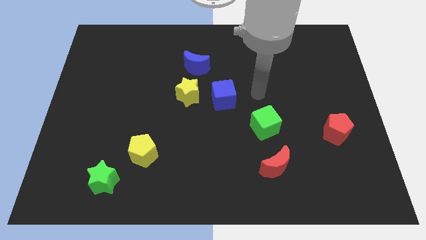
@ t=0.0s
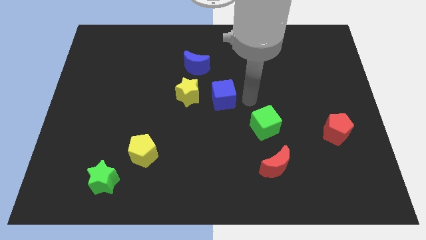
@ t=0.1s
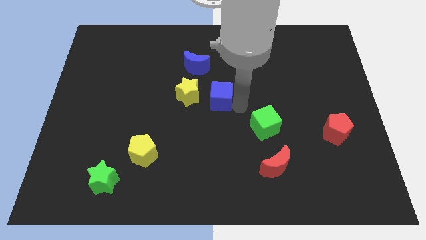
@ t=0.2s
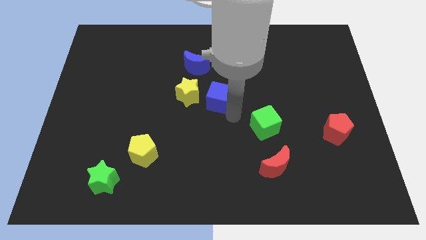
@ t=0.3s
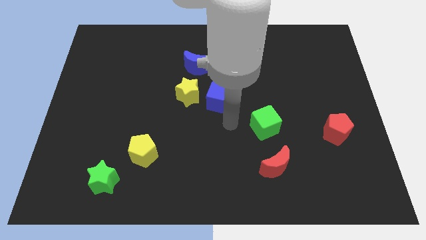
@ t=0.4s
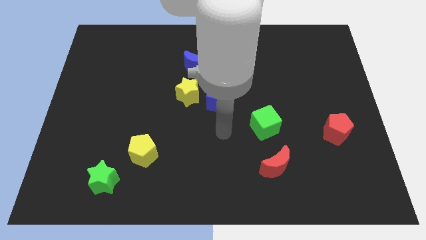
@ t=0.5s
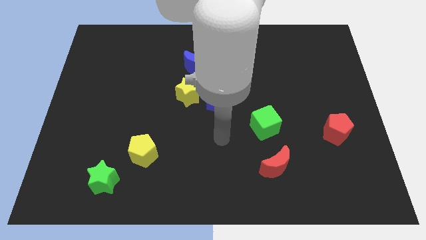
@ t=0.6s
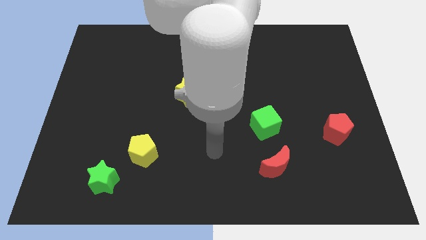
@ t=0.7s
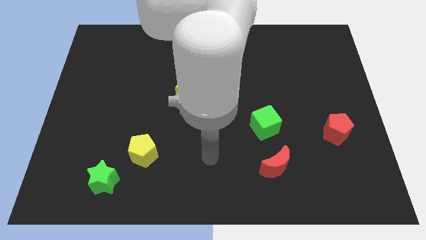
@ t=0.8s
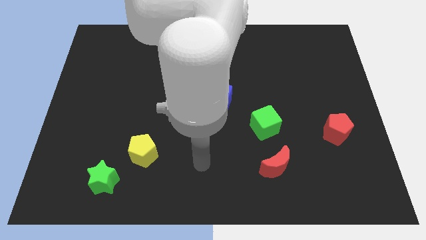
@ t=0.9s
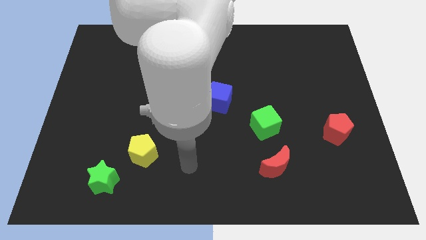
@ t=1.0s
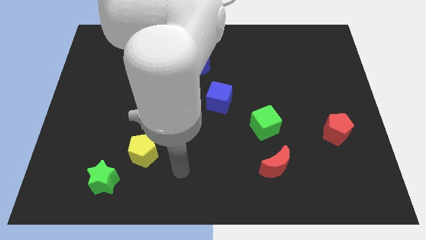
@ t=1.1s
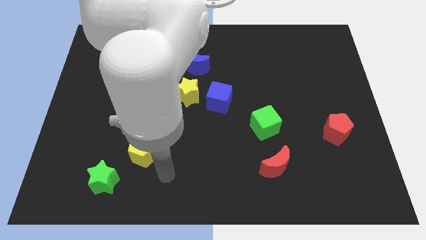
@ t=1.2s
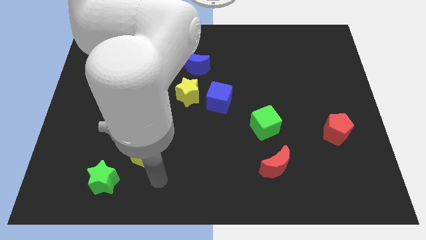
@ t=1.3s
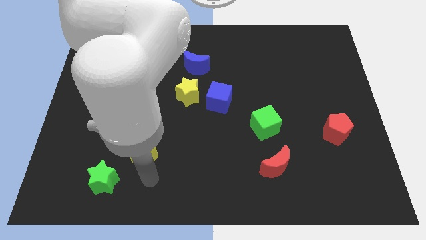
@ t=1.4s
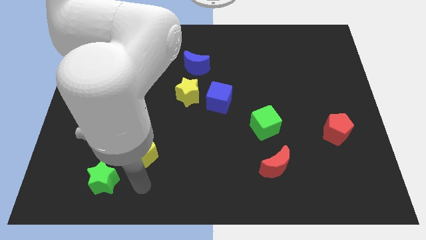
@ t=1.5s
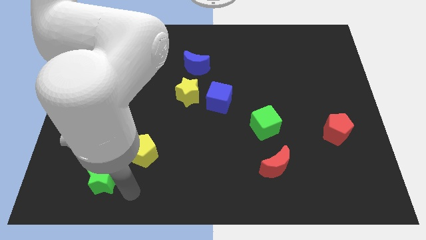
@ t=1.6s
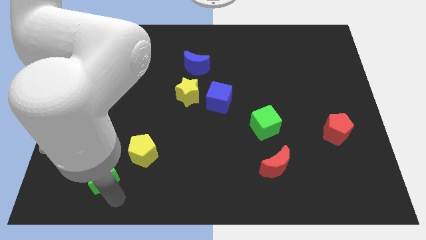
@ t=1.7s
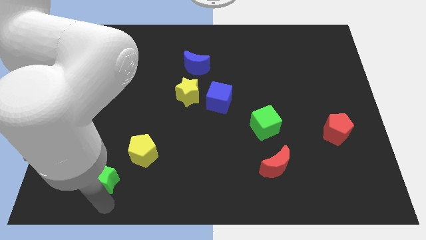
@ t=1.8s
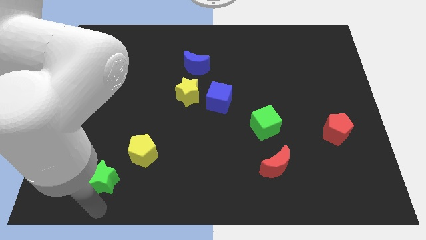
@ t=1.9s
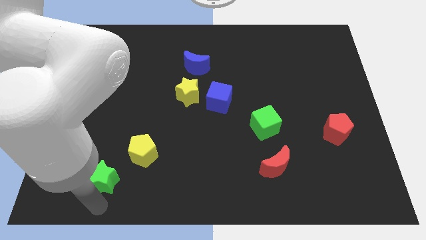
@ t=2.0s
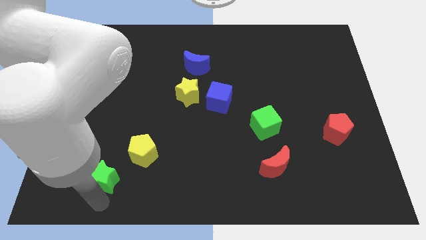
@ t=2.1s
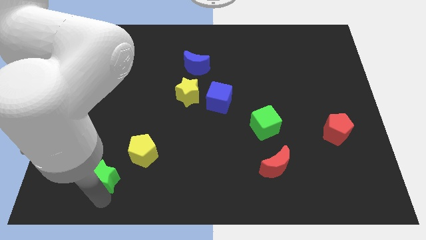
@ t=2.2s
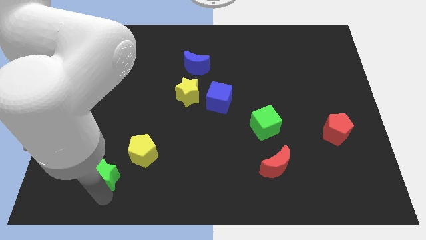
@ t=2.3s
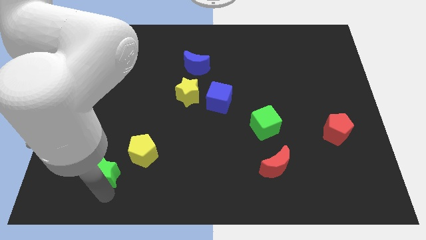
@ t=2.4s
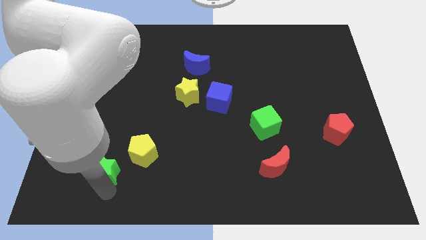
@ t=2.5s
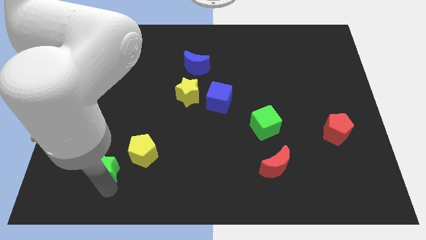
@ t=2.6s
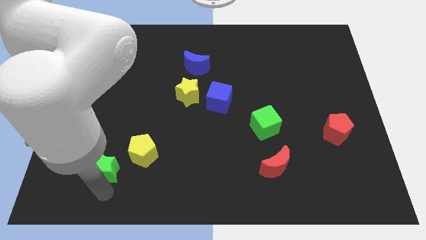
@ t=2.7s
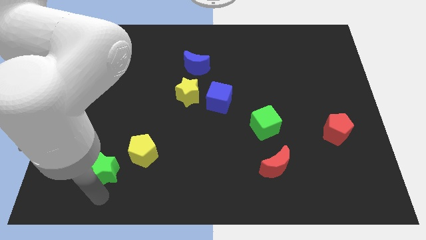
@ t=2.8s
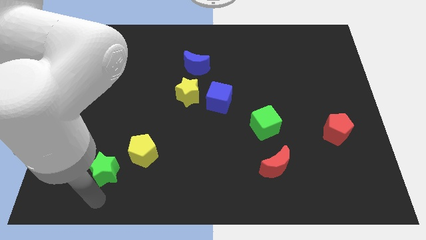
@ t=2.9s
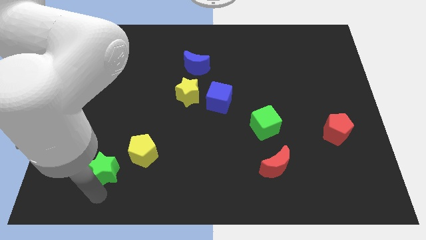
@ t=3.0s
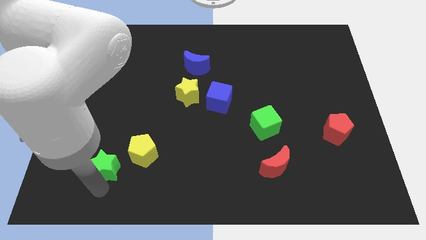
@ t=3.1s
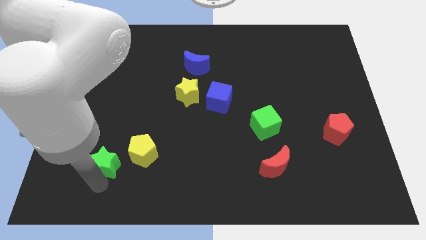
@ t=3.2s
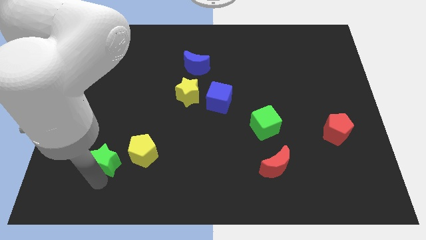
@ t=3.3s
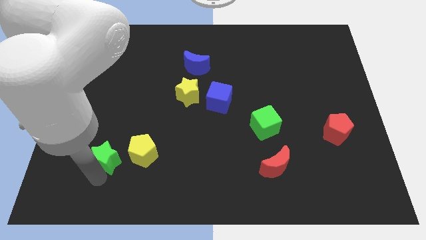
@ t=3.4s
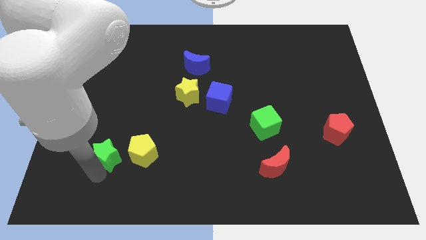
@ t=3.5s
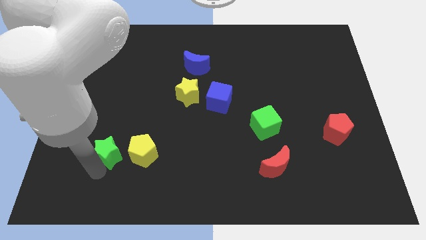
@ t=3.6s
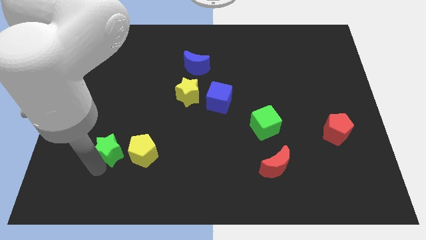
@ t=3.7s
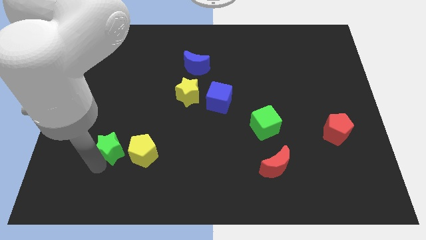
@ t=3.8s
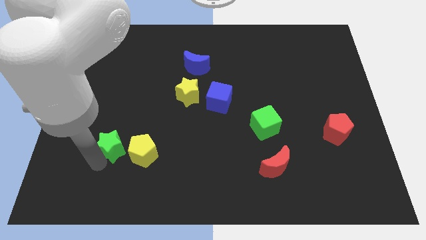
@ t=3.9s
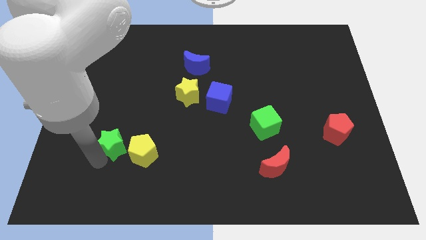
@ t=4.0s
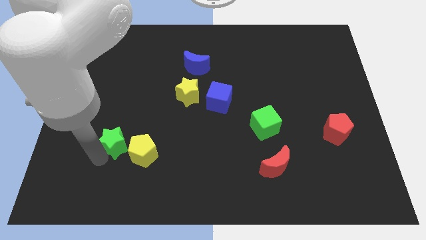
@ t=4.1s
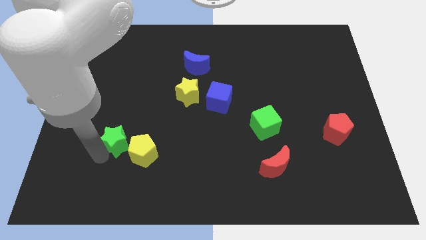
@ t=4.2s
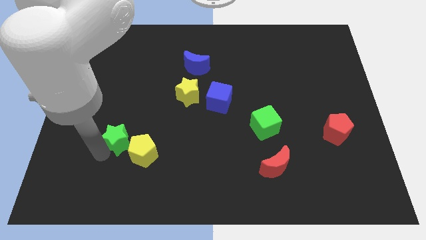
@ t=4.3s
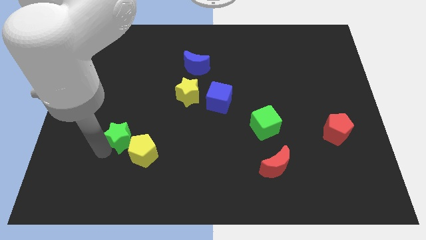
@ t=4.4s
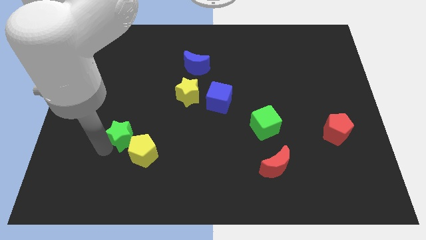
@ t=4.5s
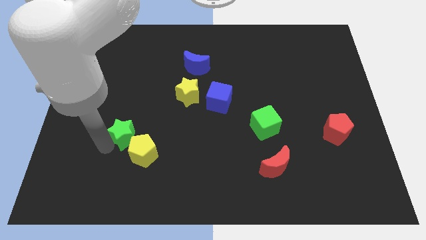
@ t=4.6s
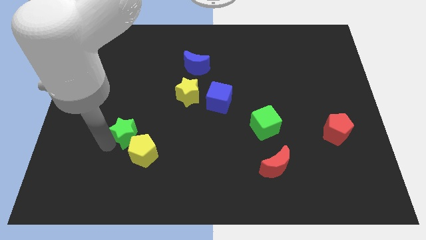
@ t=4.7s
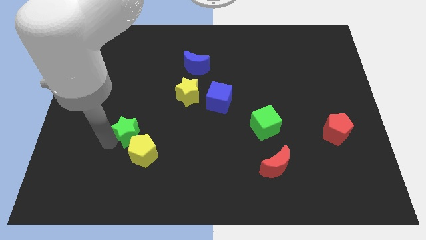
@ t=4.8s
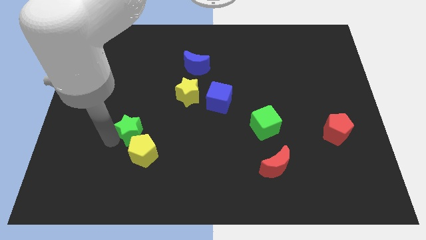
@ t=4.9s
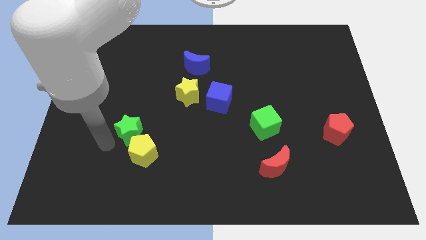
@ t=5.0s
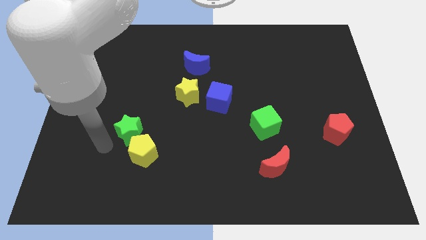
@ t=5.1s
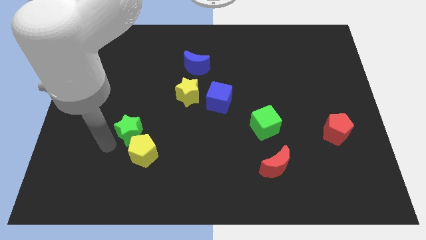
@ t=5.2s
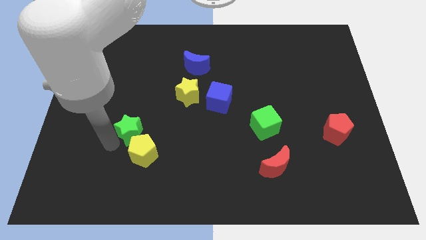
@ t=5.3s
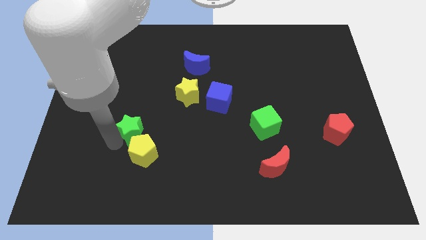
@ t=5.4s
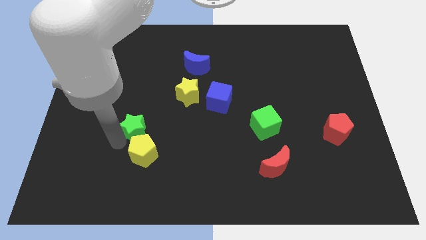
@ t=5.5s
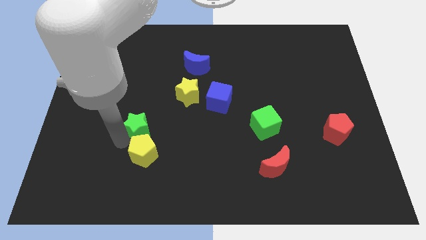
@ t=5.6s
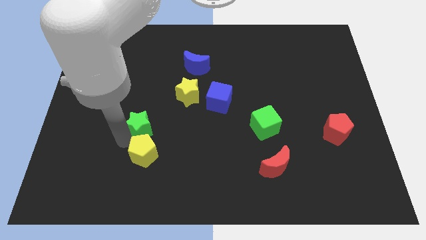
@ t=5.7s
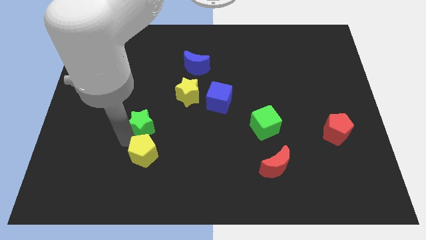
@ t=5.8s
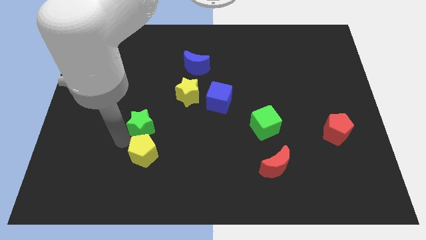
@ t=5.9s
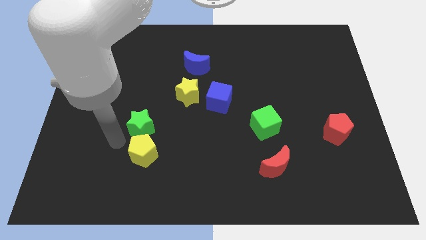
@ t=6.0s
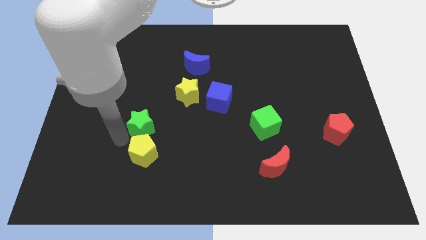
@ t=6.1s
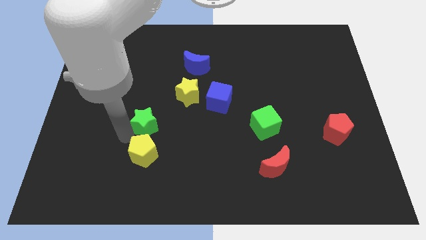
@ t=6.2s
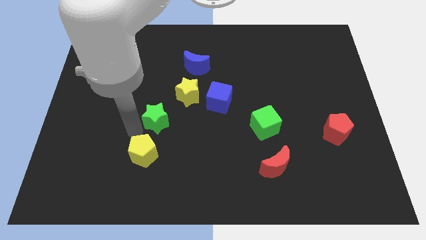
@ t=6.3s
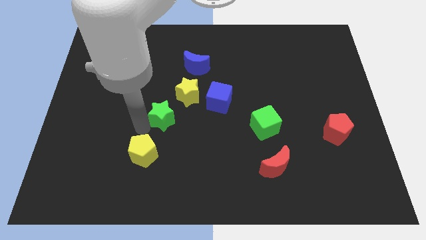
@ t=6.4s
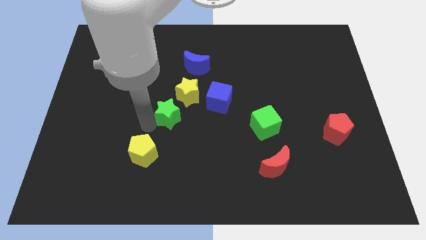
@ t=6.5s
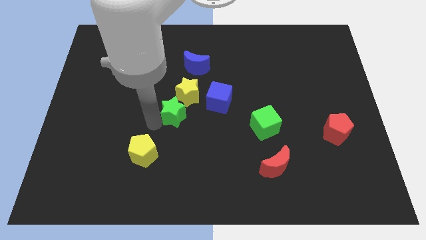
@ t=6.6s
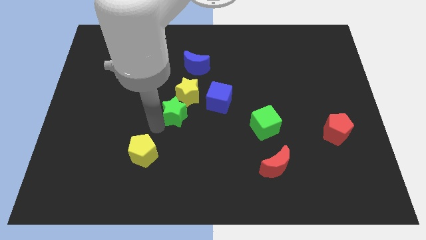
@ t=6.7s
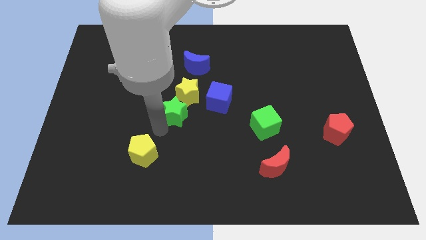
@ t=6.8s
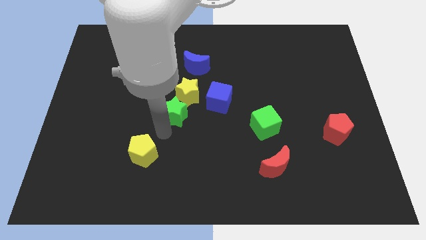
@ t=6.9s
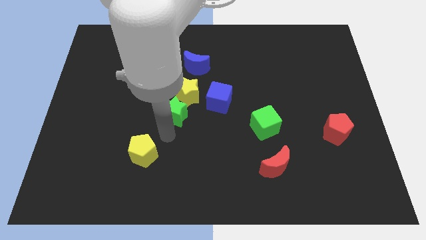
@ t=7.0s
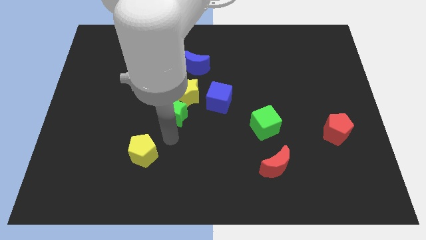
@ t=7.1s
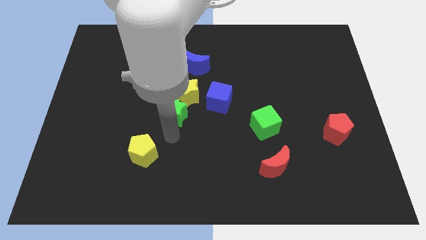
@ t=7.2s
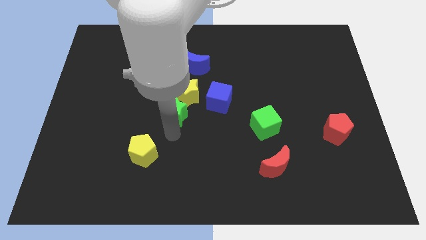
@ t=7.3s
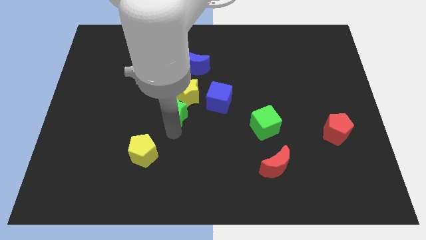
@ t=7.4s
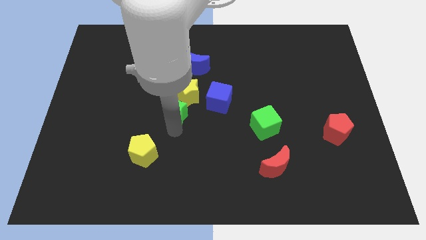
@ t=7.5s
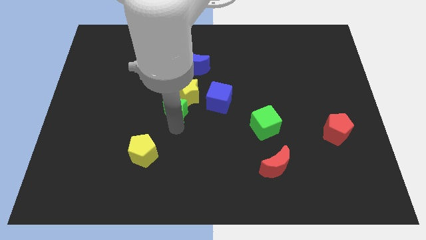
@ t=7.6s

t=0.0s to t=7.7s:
push the green star to the yellow star
